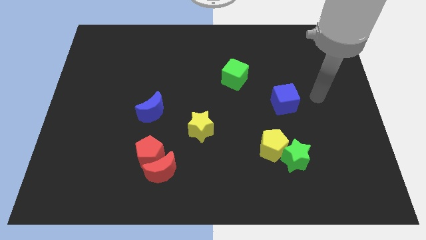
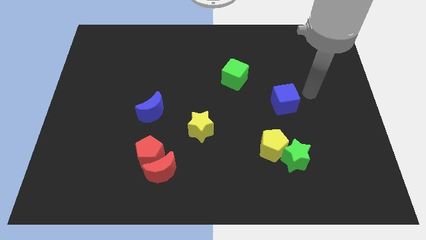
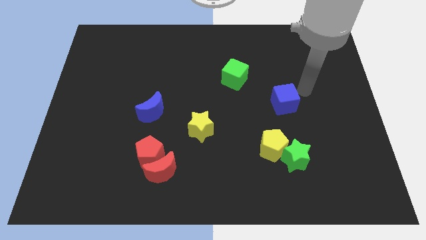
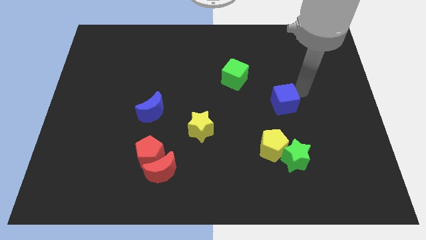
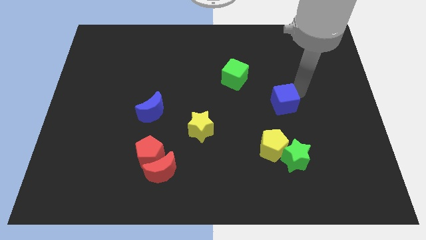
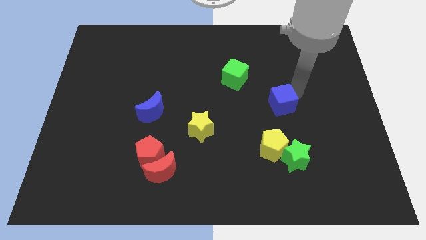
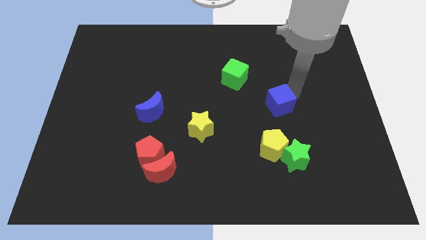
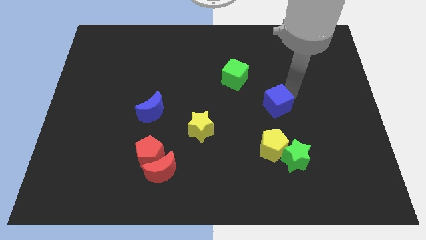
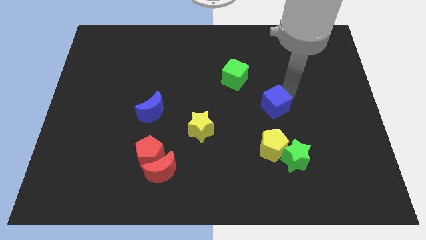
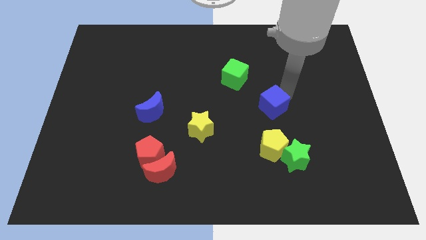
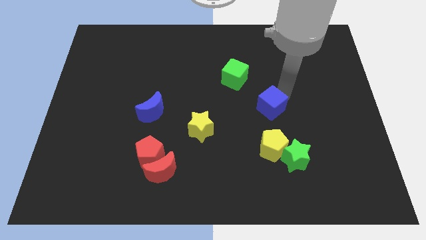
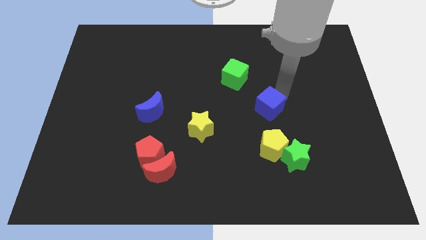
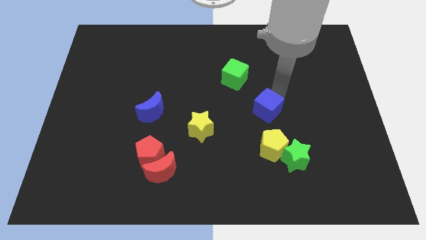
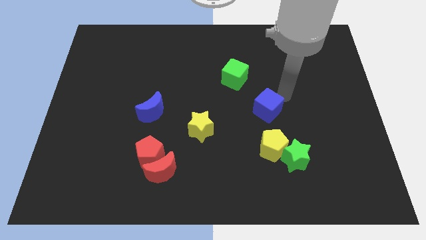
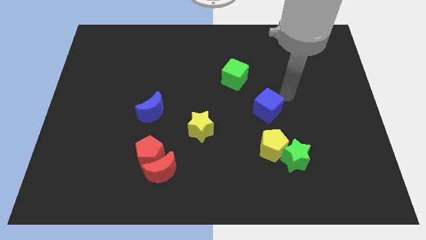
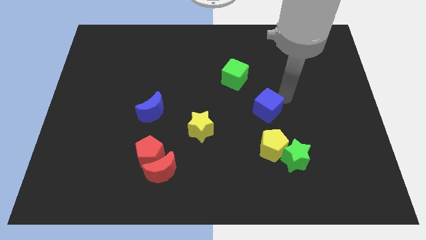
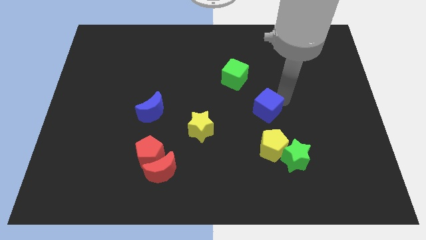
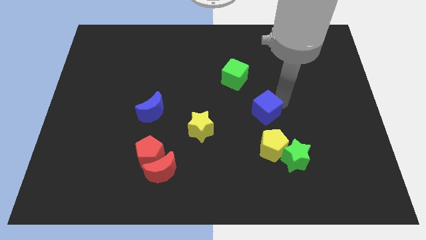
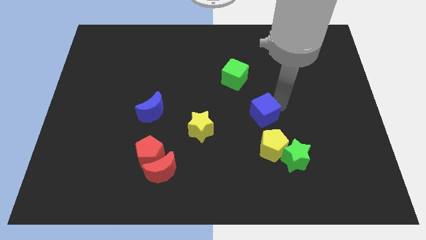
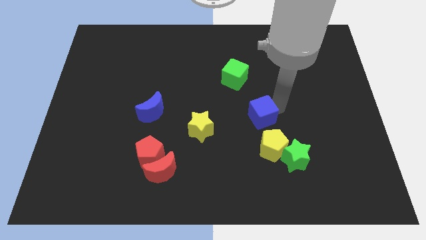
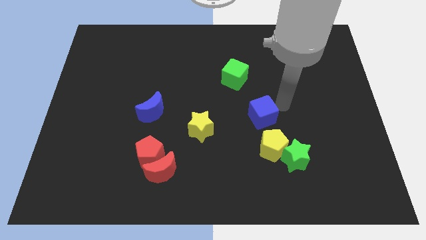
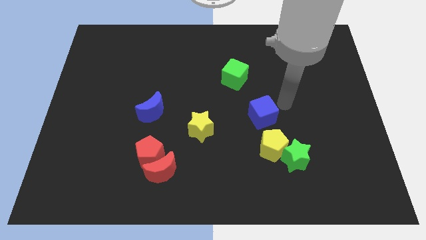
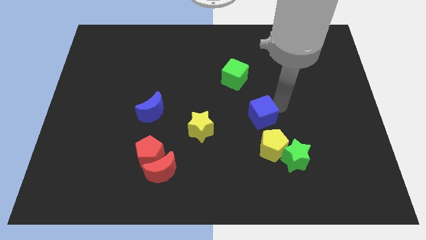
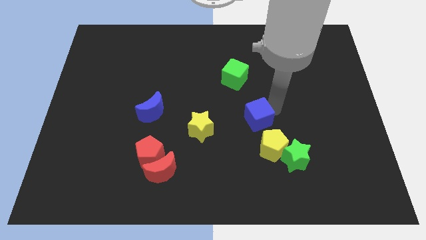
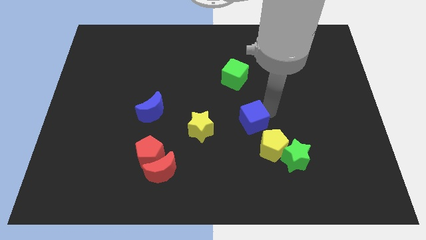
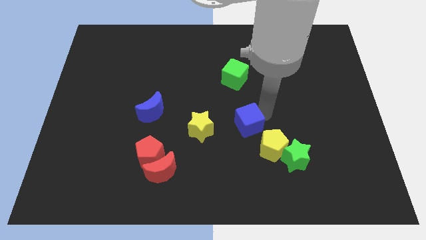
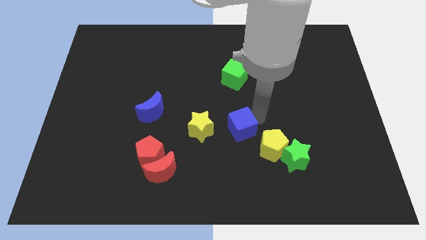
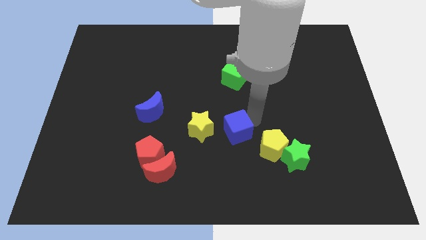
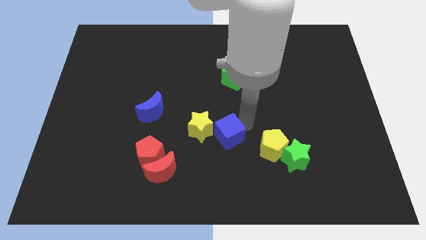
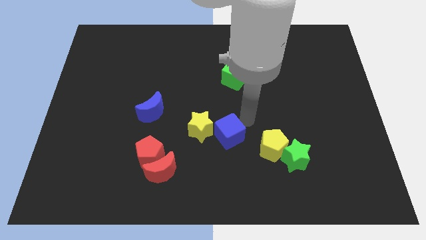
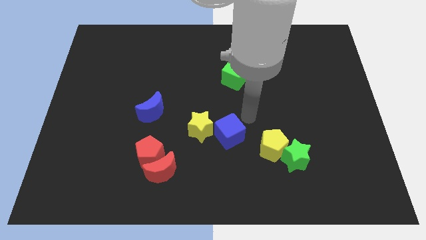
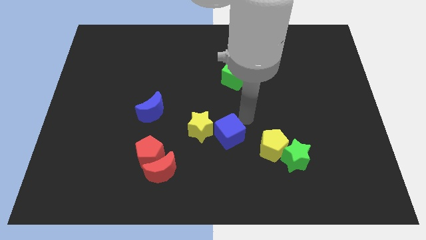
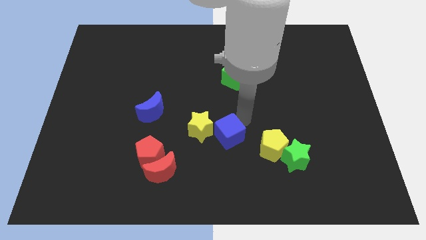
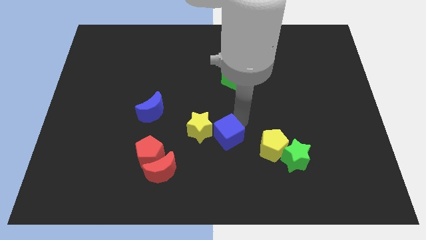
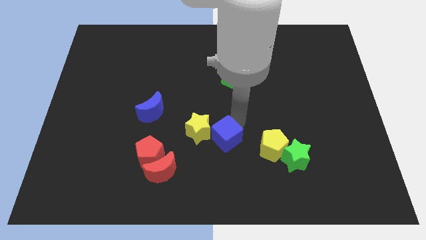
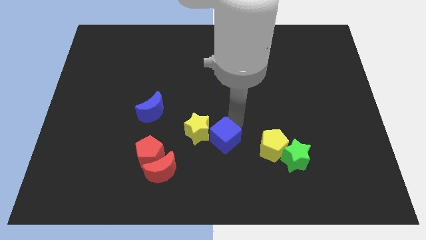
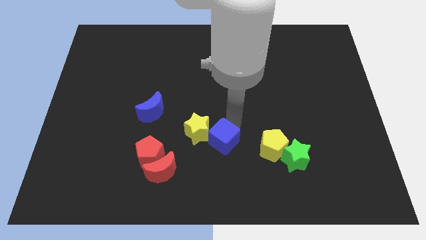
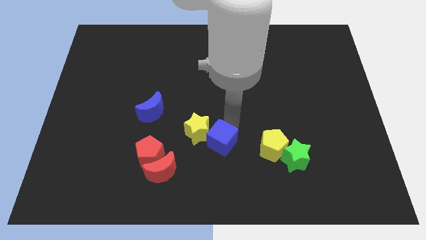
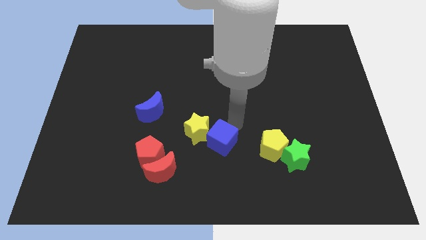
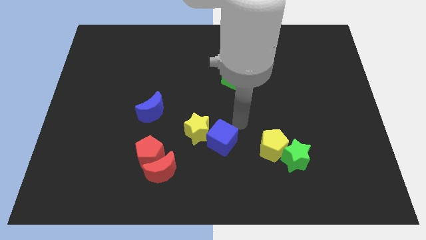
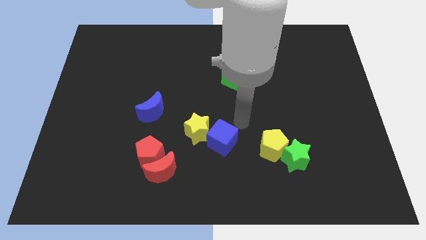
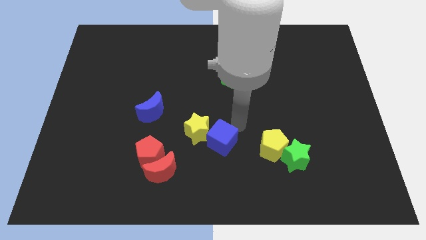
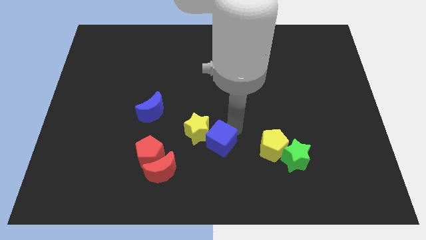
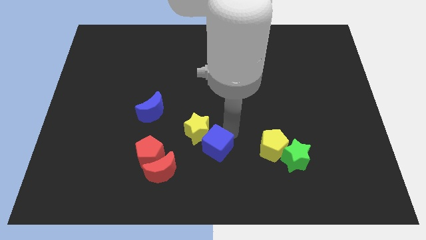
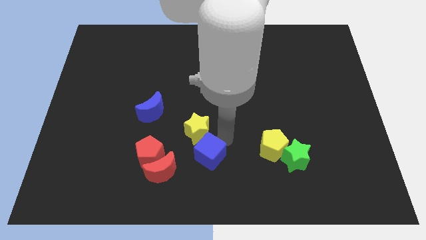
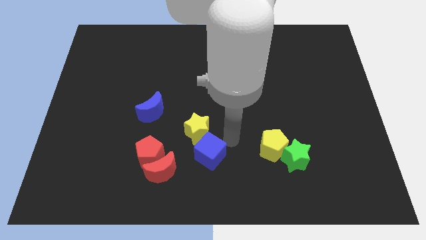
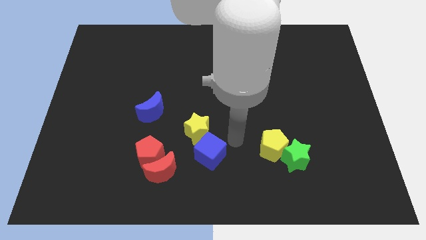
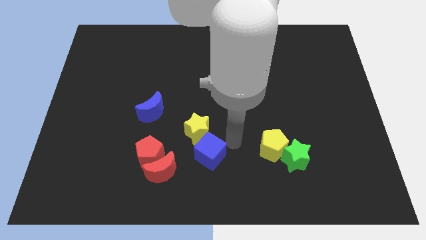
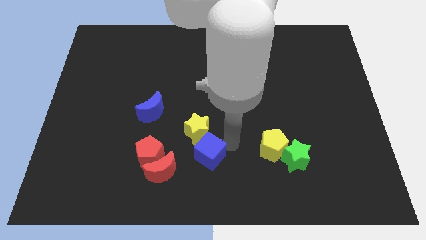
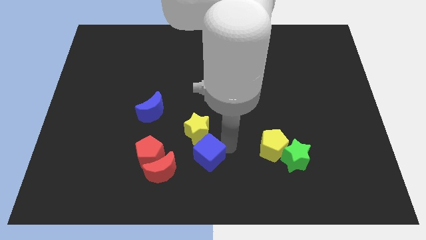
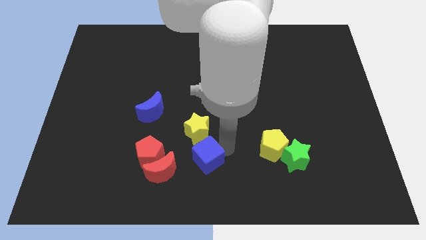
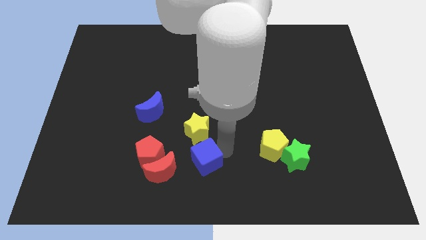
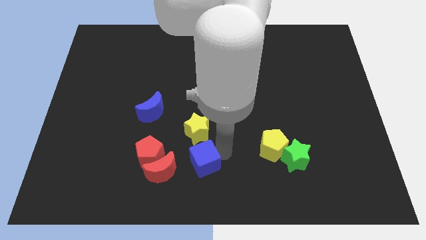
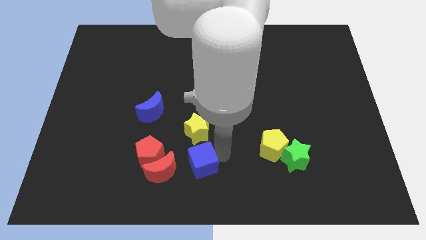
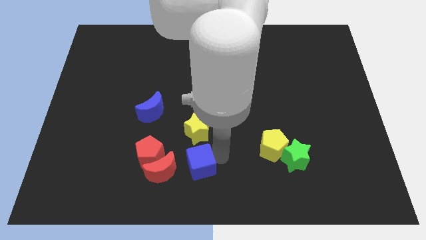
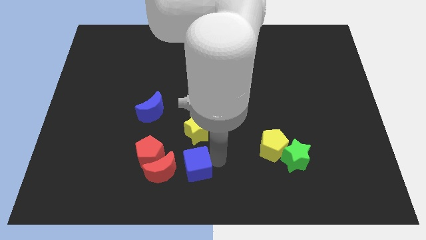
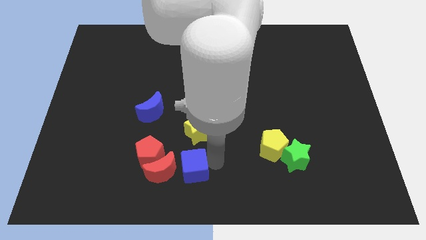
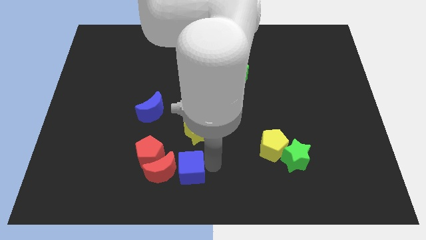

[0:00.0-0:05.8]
slide the blue cube close to the red moon

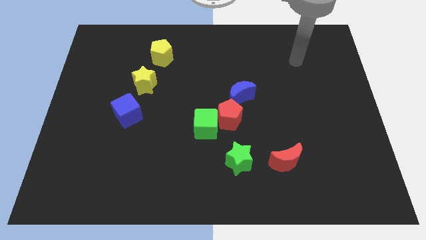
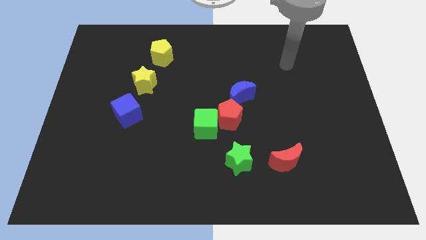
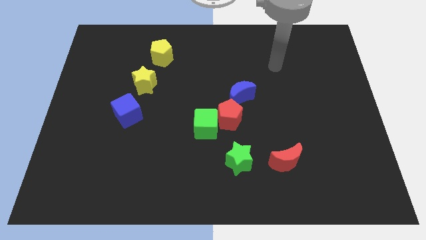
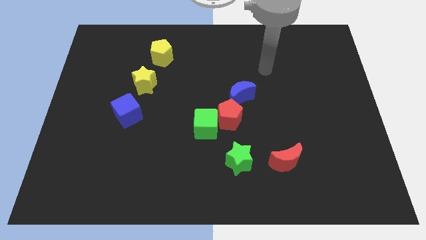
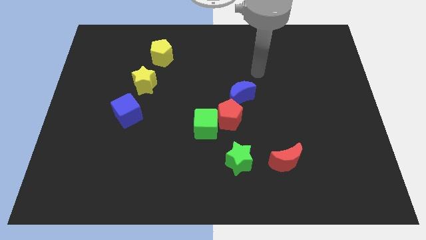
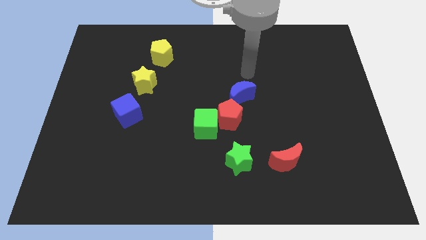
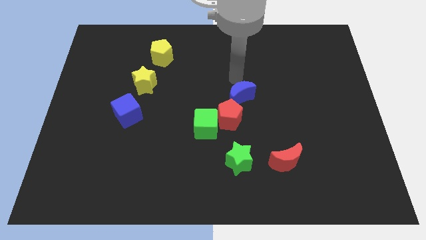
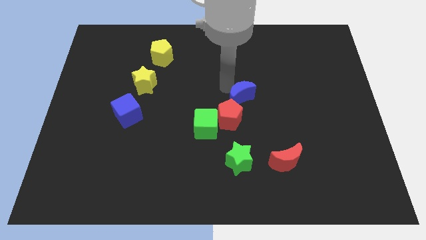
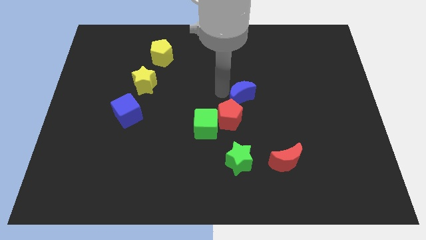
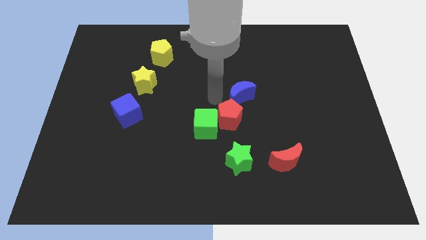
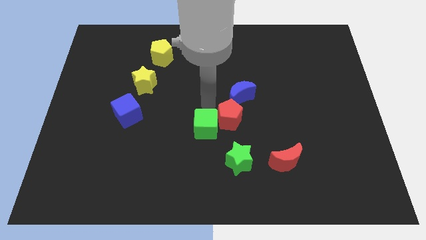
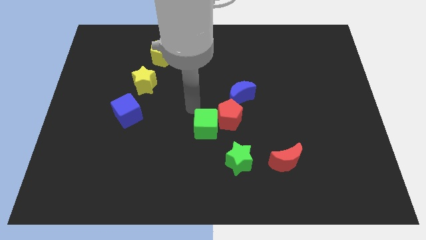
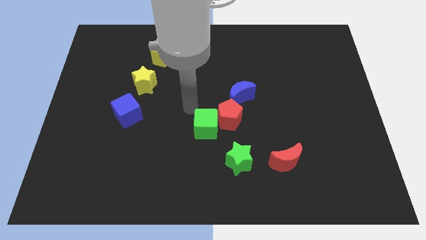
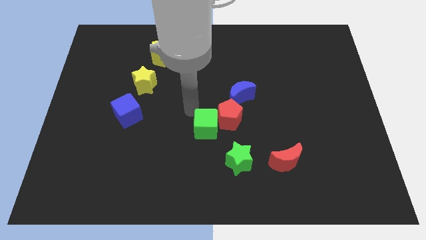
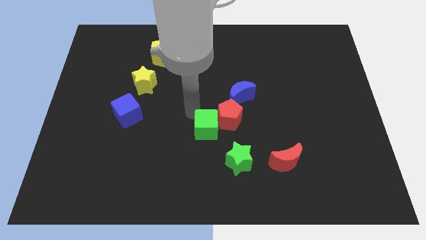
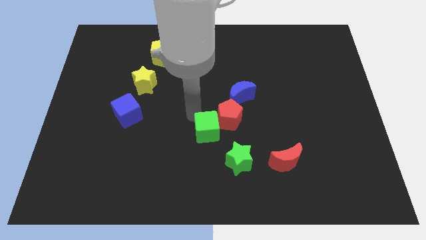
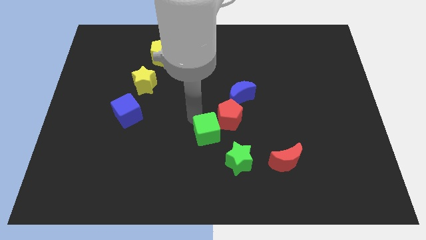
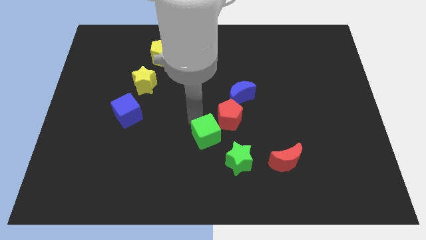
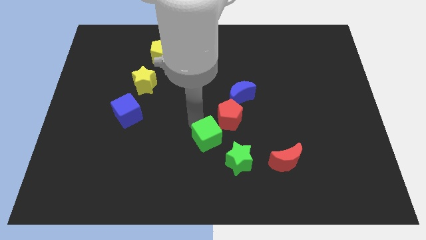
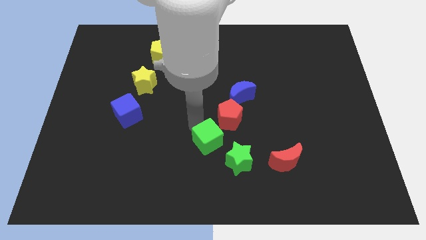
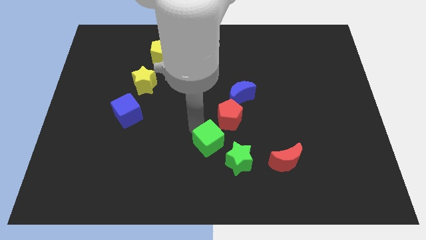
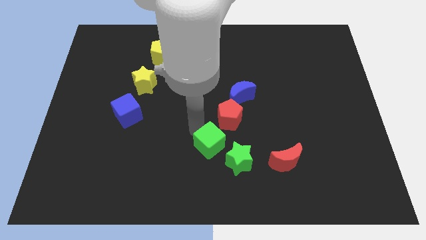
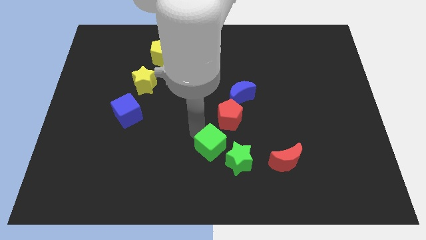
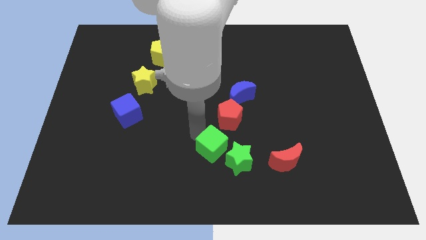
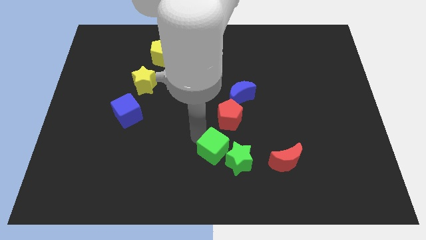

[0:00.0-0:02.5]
put the green cube next to the green star

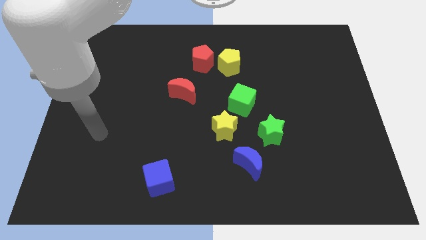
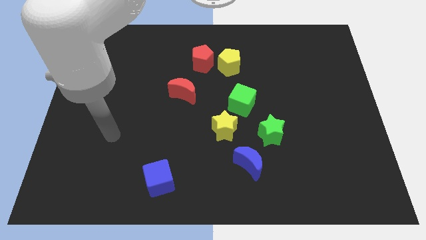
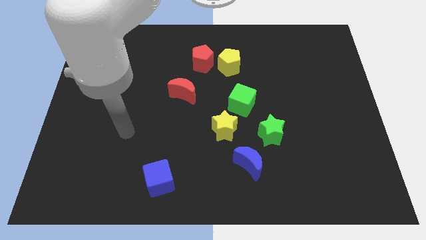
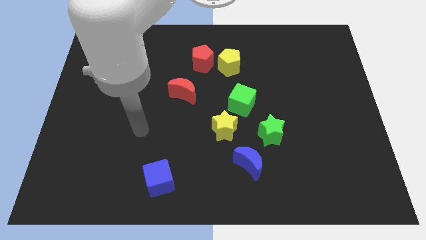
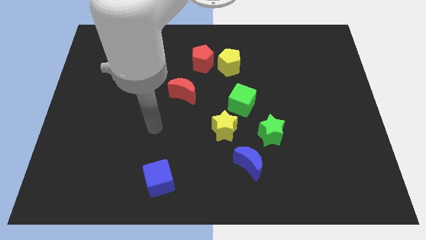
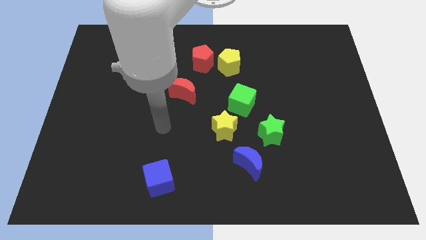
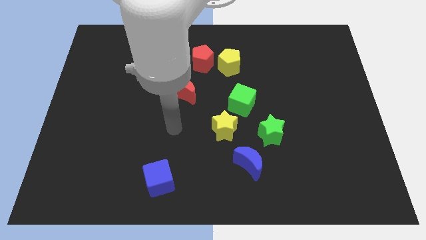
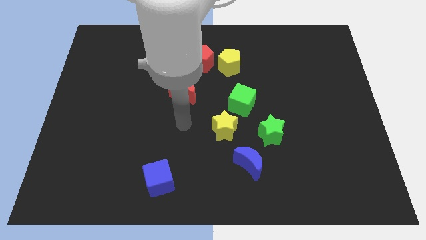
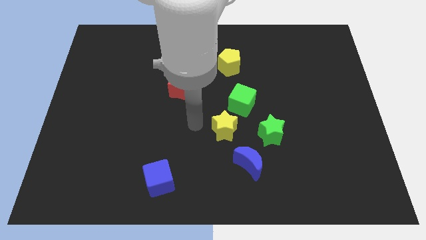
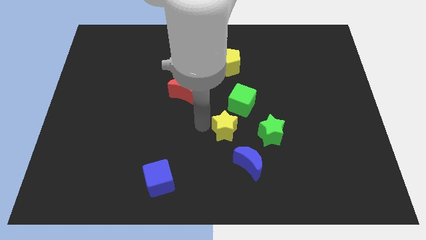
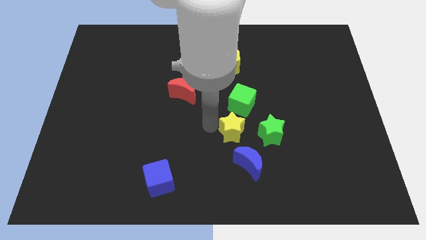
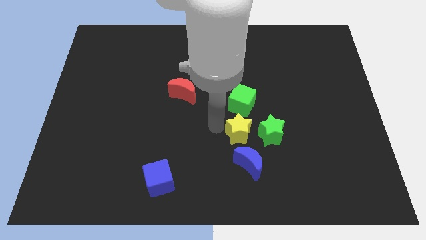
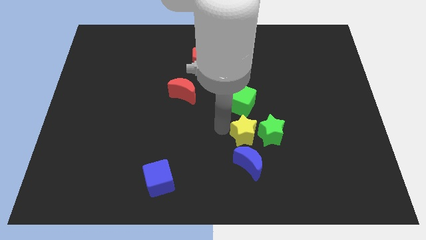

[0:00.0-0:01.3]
move the yellow star close to the green star
